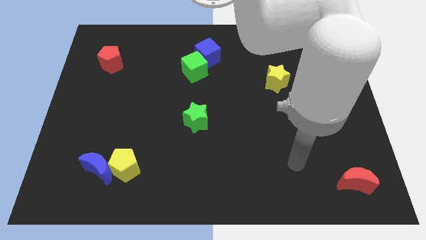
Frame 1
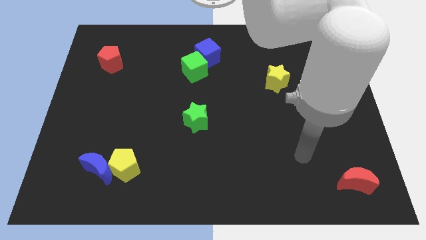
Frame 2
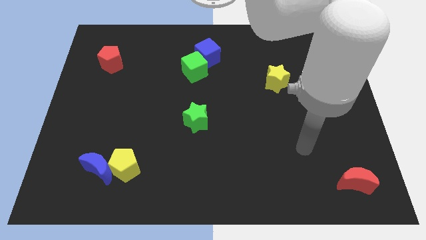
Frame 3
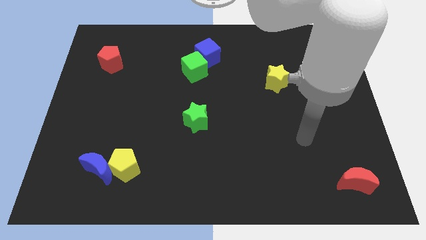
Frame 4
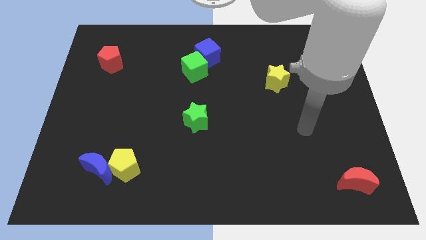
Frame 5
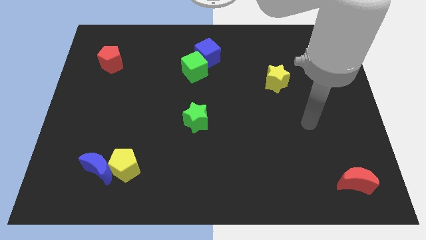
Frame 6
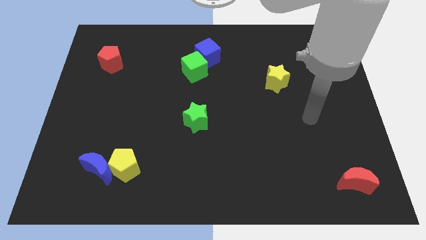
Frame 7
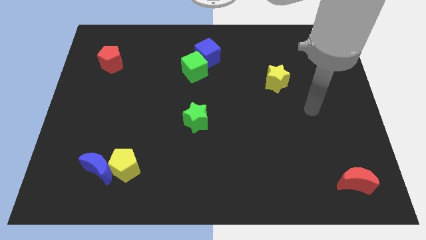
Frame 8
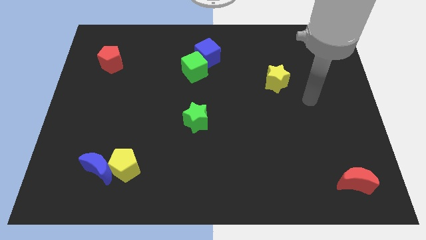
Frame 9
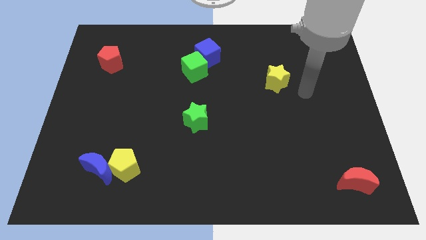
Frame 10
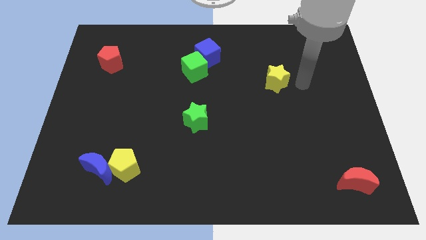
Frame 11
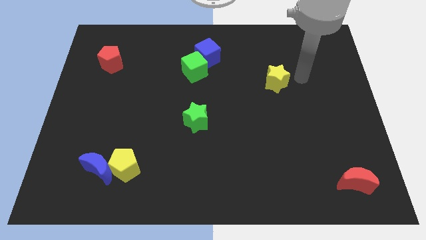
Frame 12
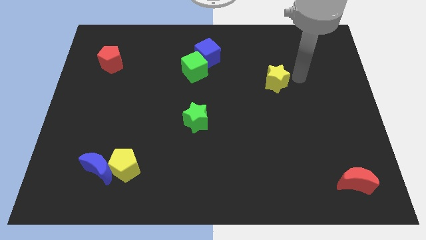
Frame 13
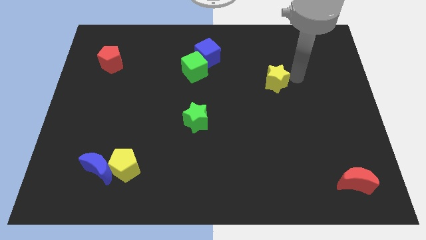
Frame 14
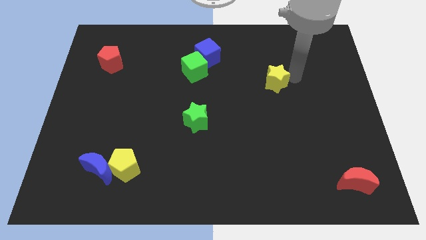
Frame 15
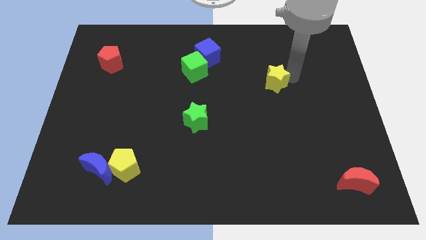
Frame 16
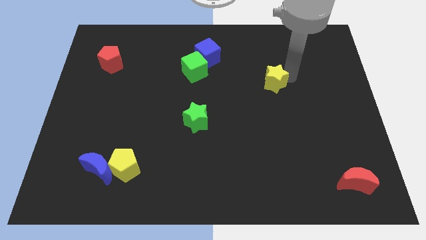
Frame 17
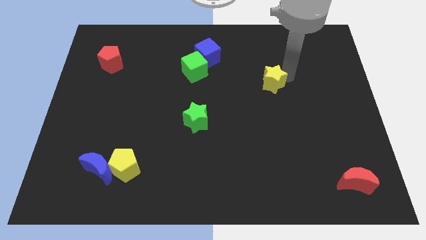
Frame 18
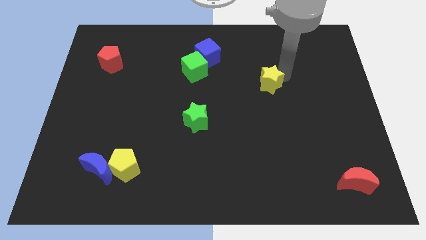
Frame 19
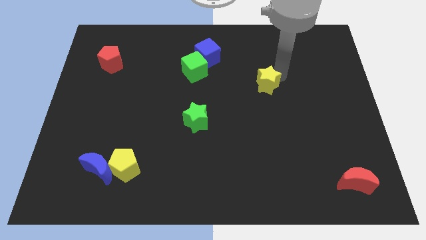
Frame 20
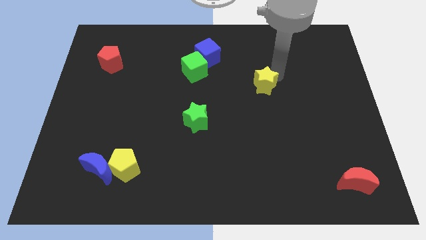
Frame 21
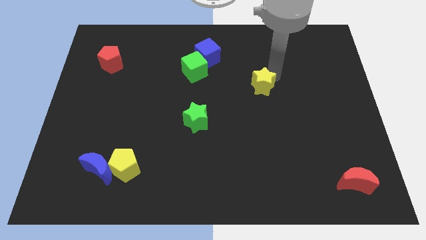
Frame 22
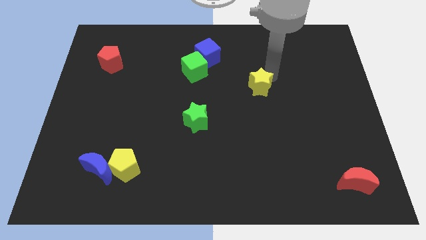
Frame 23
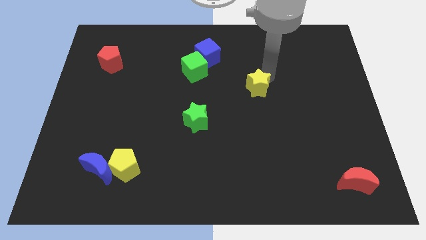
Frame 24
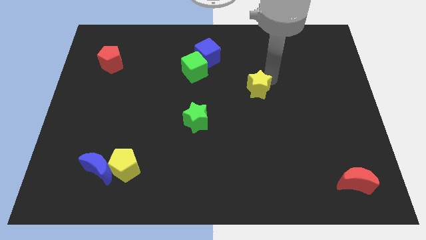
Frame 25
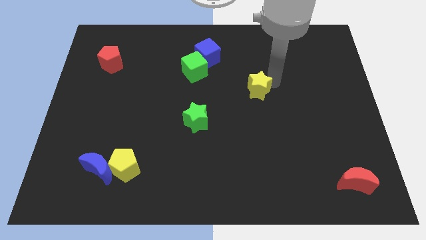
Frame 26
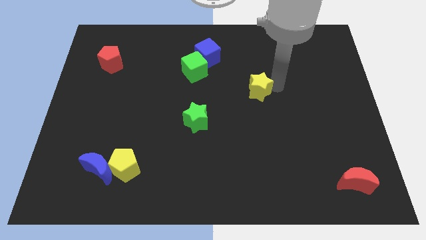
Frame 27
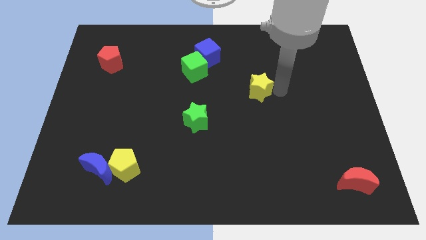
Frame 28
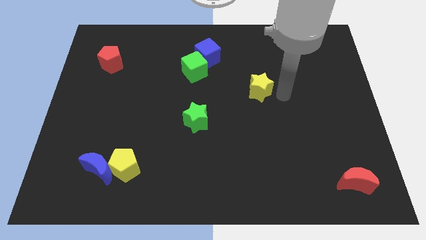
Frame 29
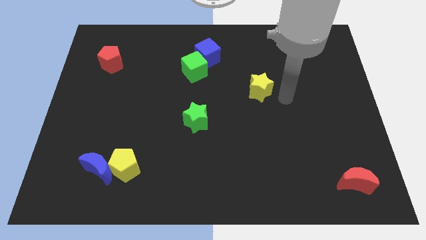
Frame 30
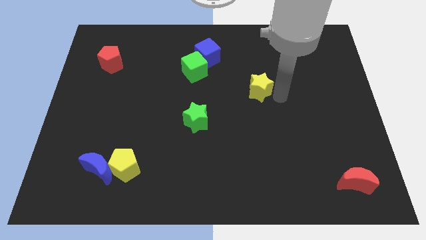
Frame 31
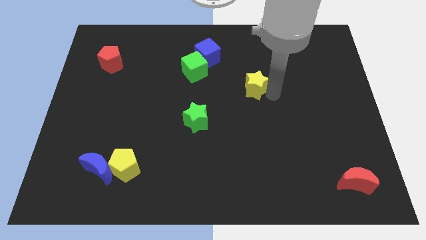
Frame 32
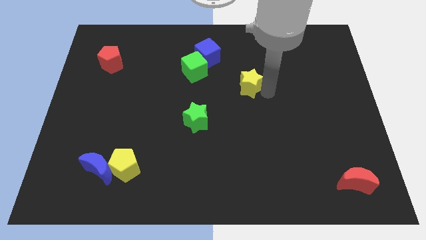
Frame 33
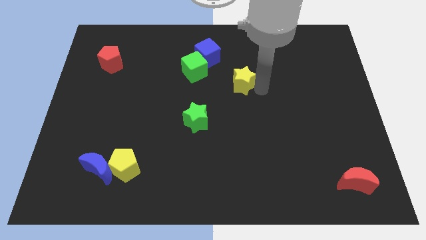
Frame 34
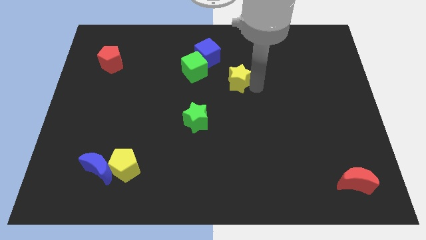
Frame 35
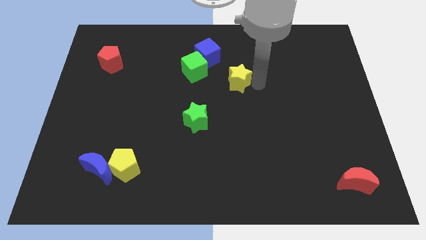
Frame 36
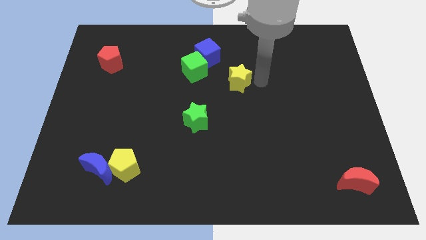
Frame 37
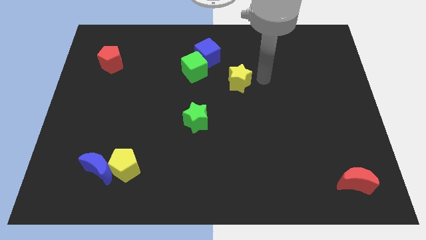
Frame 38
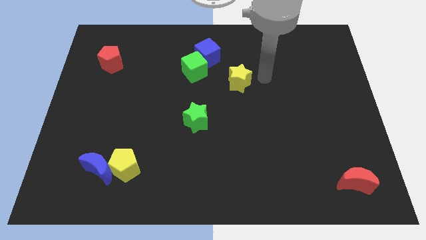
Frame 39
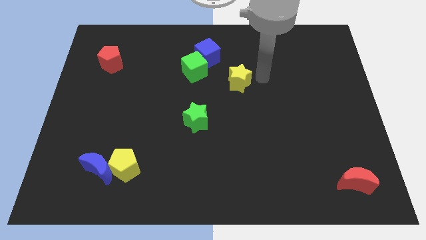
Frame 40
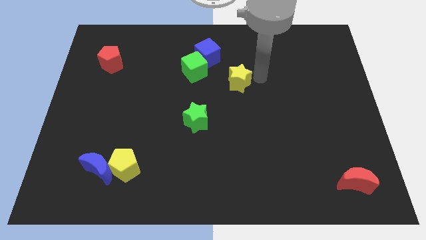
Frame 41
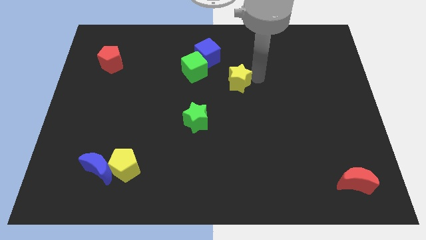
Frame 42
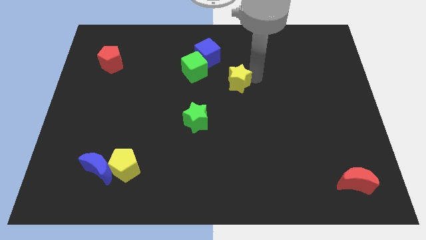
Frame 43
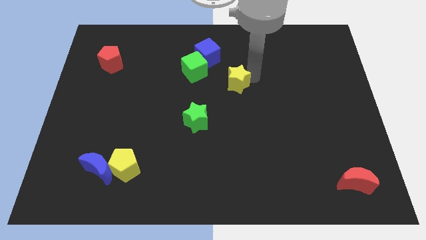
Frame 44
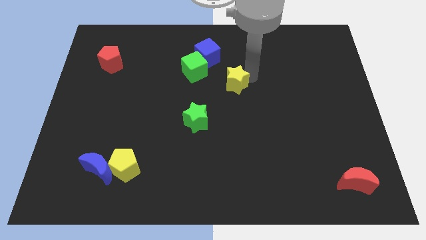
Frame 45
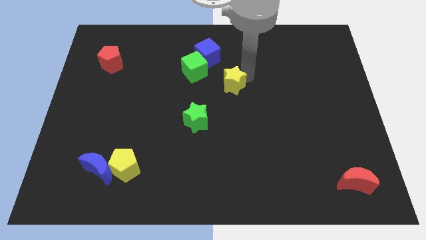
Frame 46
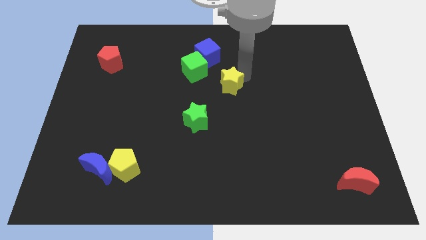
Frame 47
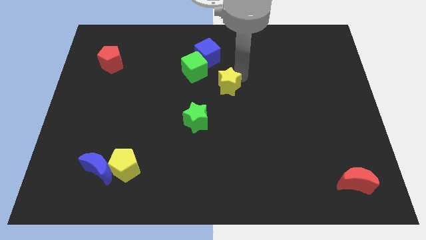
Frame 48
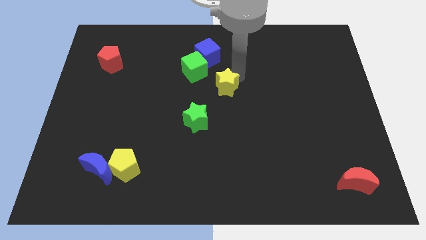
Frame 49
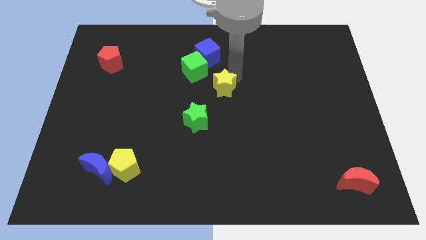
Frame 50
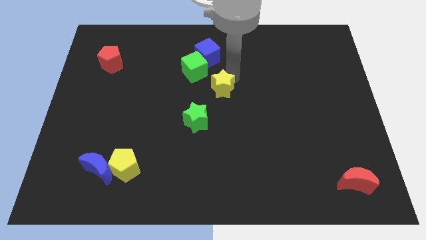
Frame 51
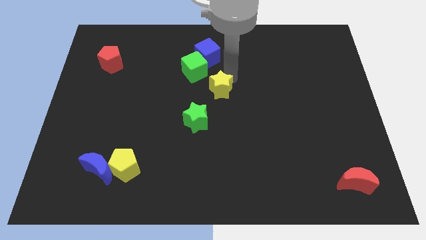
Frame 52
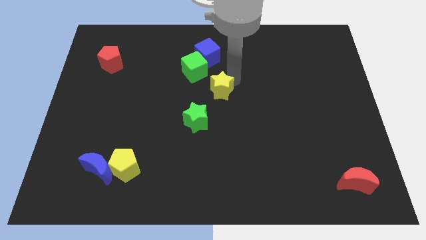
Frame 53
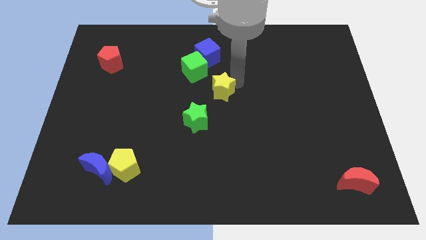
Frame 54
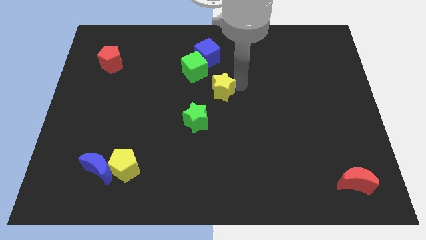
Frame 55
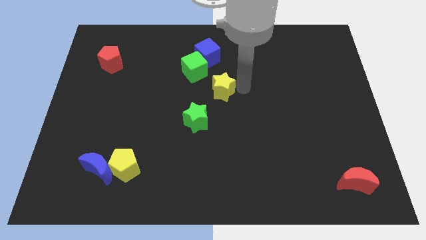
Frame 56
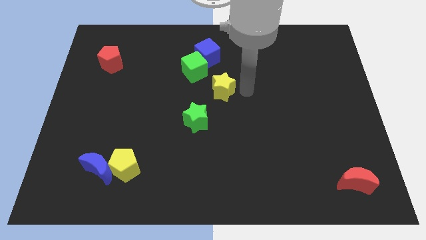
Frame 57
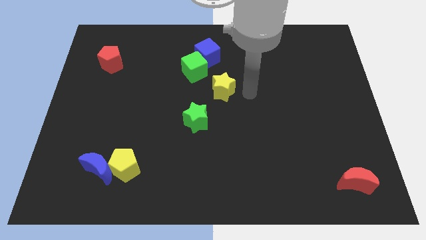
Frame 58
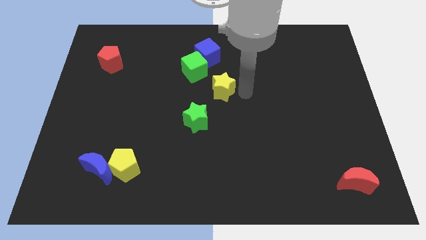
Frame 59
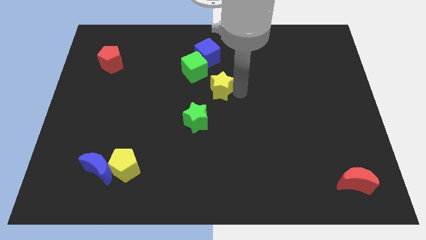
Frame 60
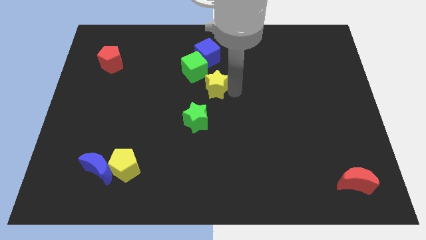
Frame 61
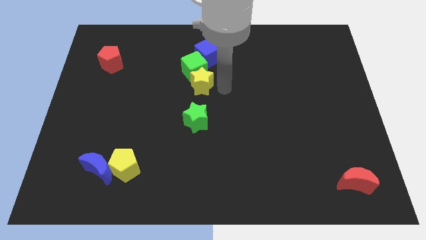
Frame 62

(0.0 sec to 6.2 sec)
put the yellow star to the bottom left of the green cube

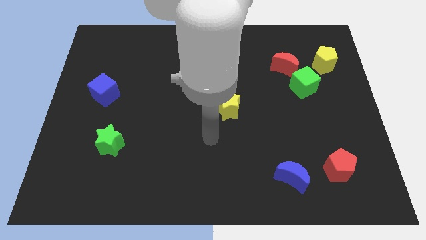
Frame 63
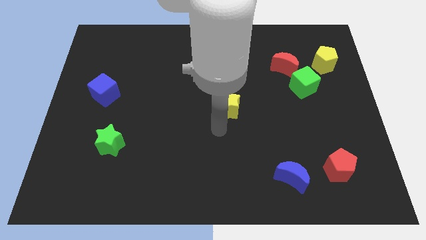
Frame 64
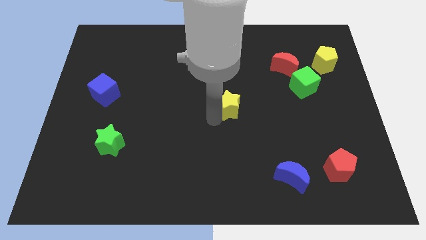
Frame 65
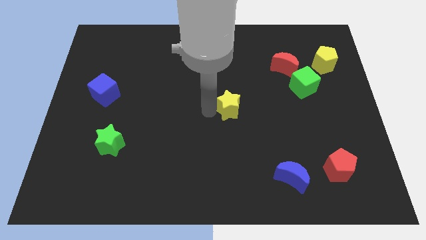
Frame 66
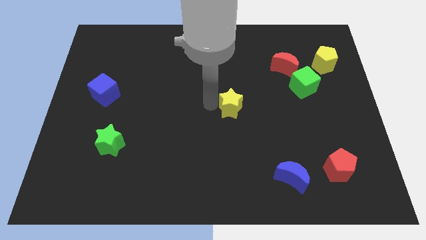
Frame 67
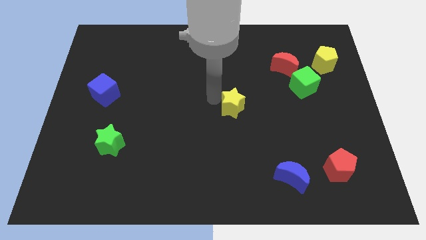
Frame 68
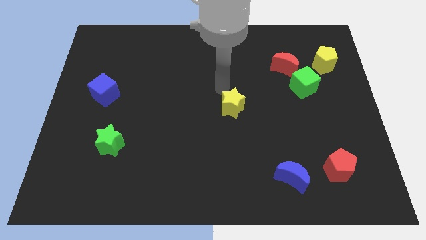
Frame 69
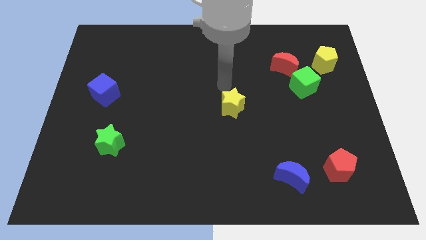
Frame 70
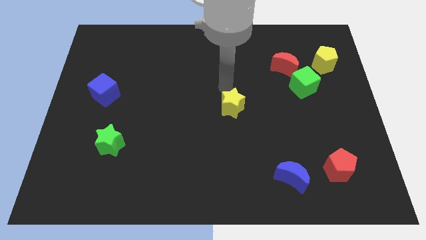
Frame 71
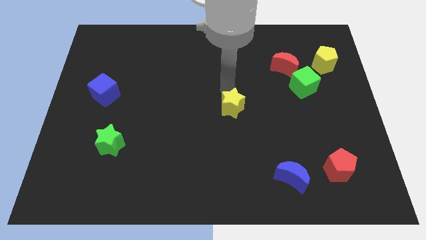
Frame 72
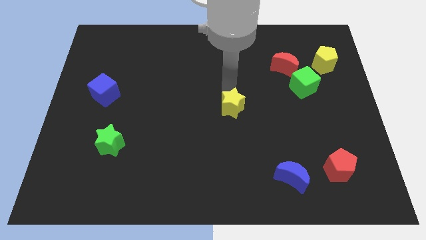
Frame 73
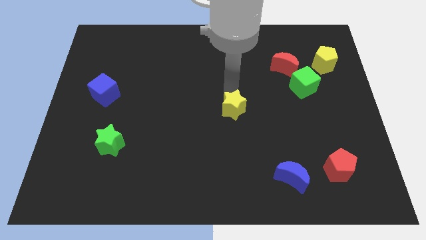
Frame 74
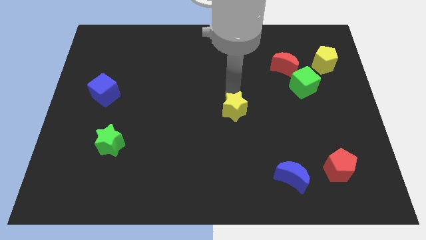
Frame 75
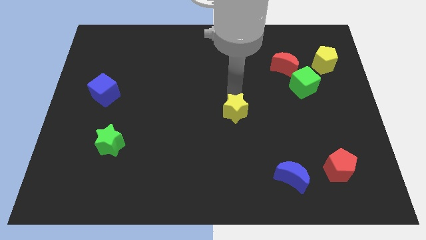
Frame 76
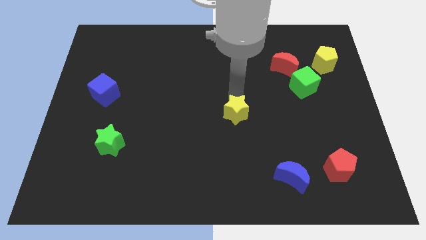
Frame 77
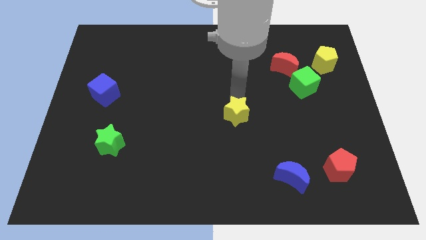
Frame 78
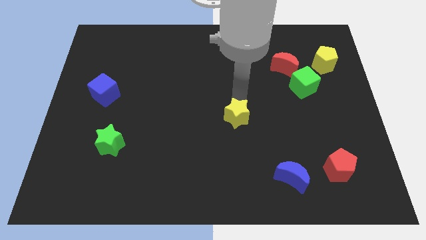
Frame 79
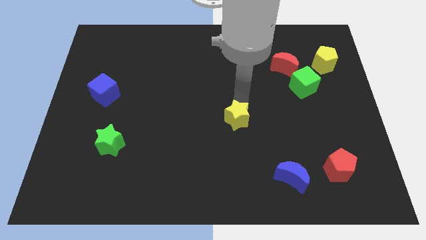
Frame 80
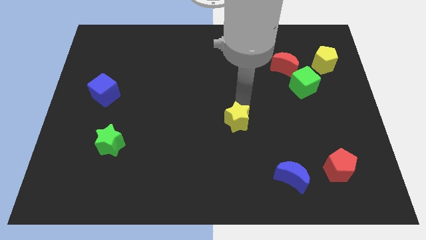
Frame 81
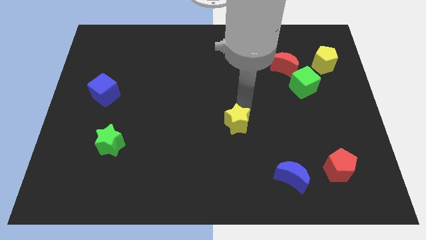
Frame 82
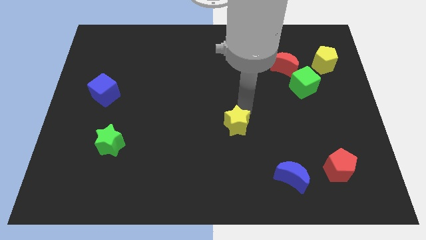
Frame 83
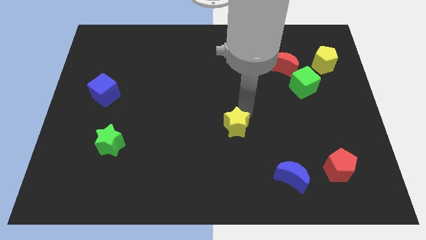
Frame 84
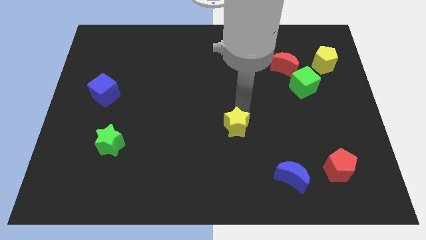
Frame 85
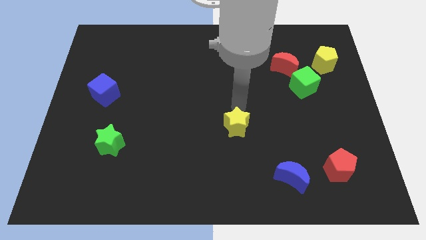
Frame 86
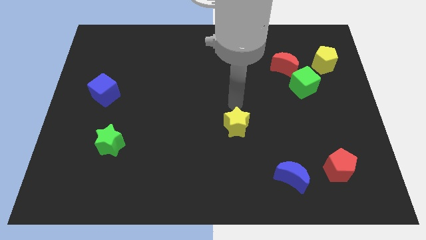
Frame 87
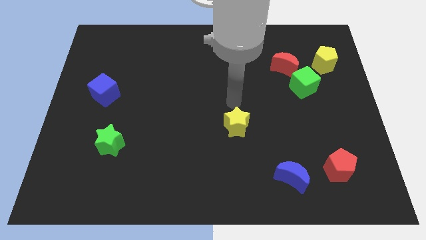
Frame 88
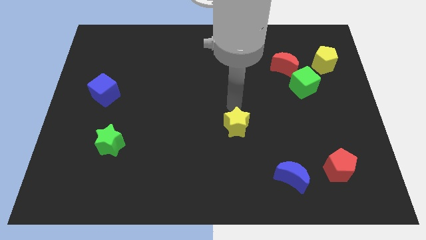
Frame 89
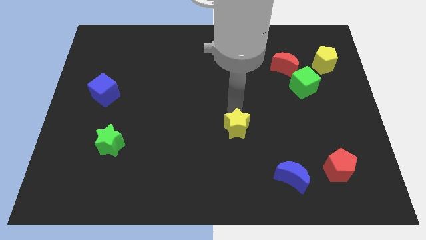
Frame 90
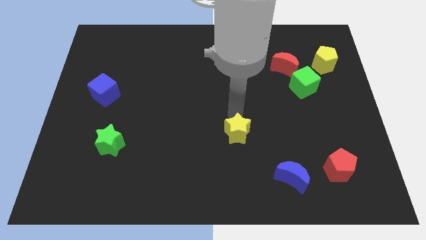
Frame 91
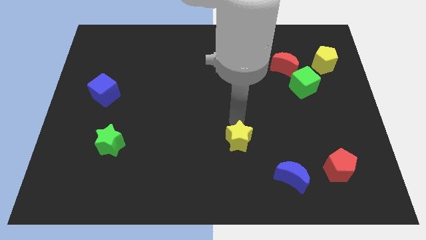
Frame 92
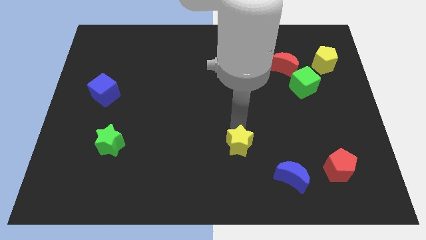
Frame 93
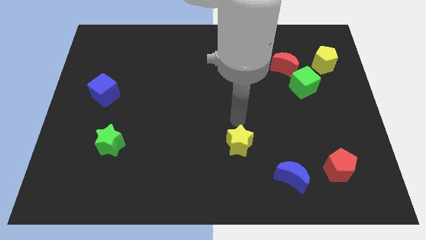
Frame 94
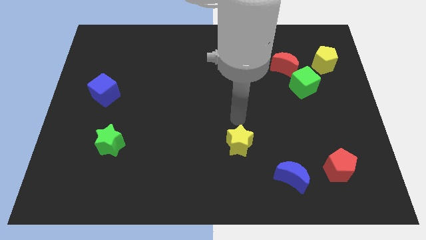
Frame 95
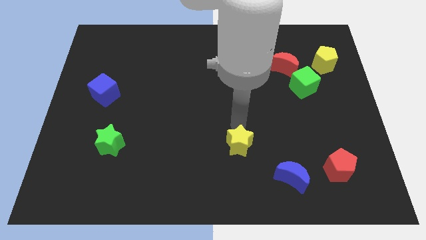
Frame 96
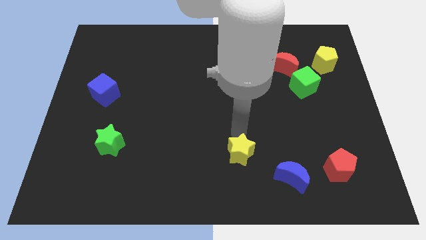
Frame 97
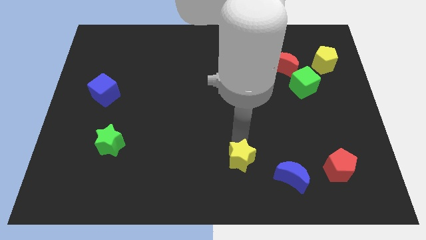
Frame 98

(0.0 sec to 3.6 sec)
push the yellow star left of the blue moon
